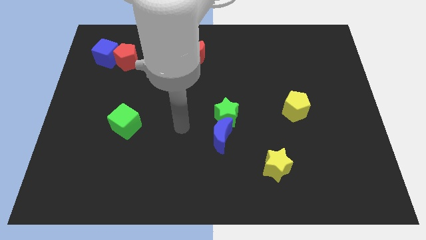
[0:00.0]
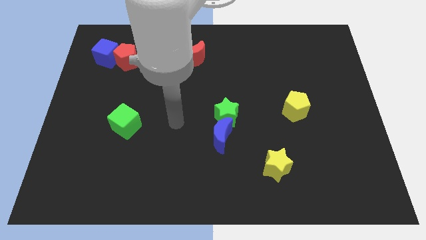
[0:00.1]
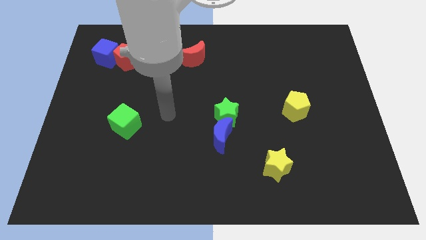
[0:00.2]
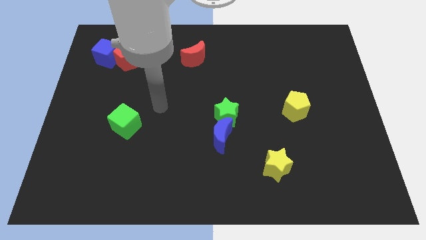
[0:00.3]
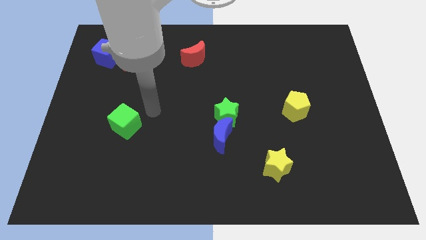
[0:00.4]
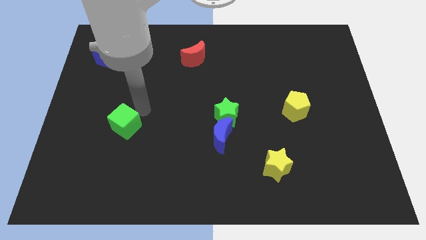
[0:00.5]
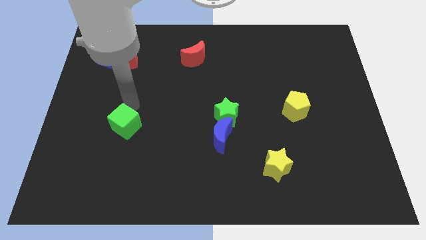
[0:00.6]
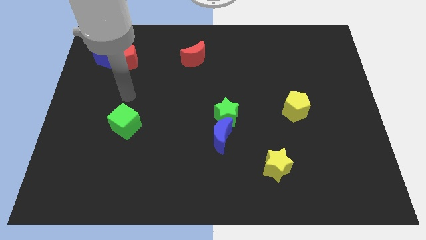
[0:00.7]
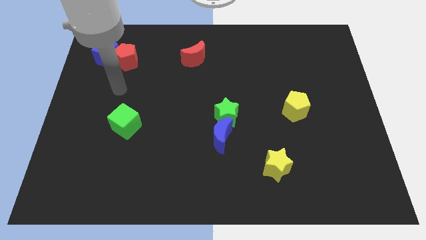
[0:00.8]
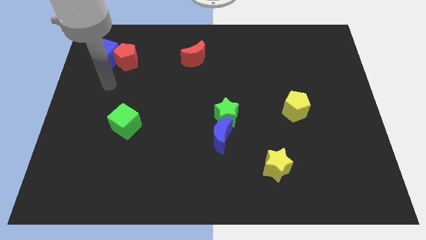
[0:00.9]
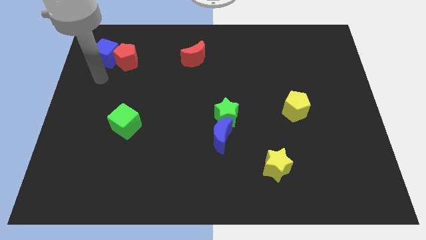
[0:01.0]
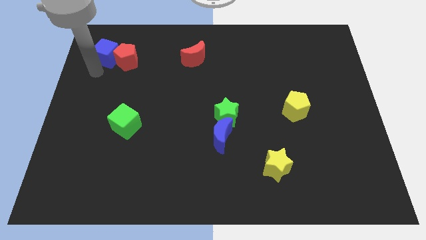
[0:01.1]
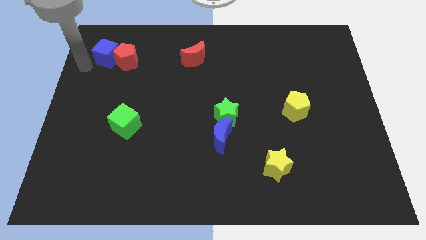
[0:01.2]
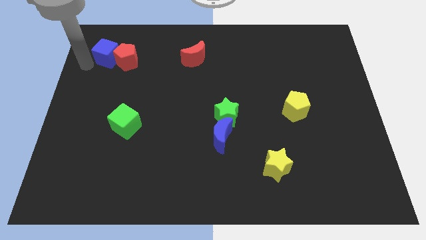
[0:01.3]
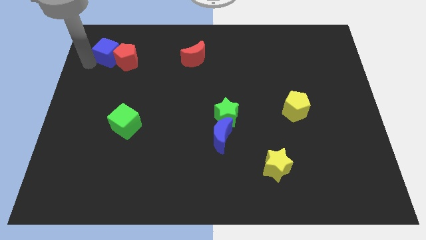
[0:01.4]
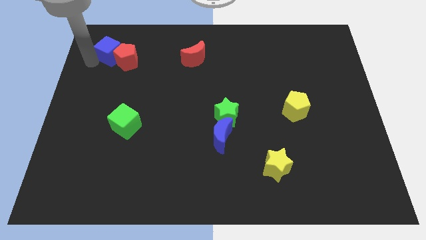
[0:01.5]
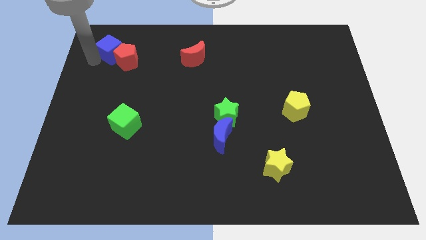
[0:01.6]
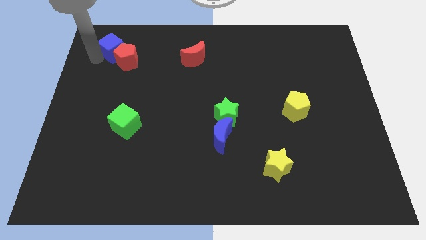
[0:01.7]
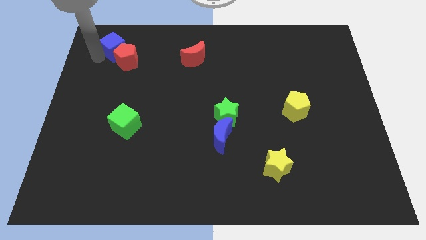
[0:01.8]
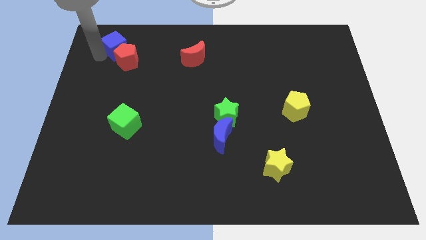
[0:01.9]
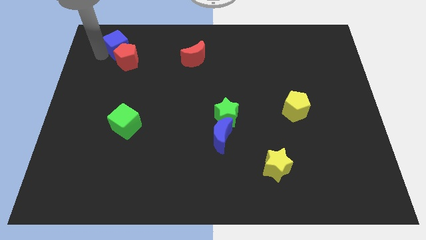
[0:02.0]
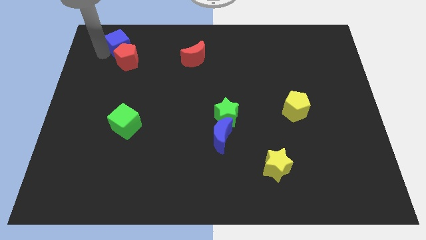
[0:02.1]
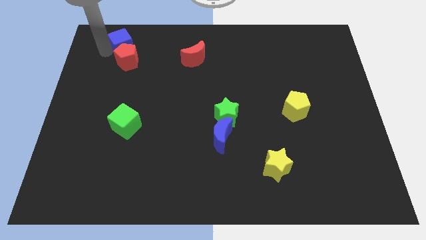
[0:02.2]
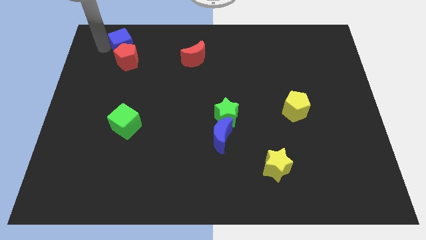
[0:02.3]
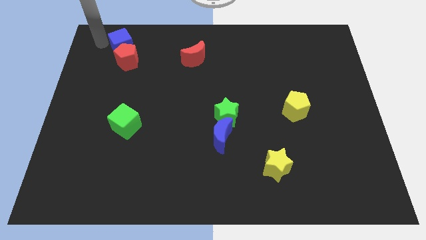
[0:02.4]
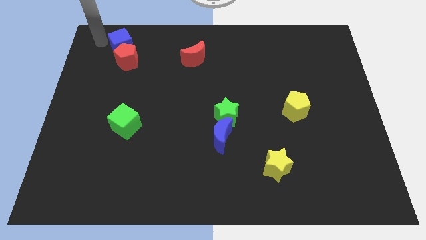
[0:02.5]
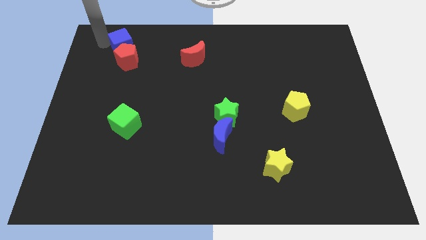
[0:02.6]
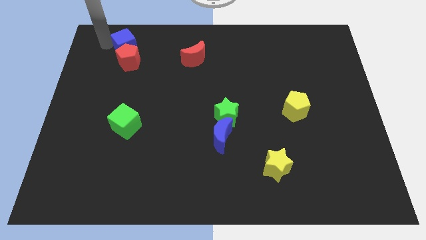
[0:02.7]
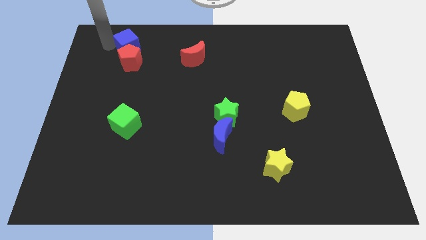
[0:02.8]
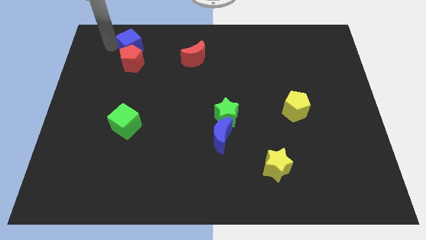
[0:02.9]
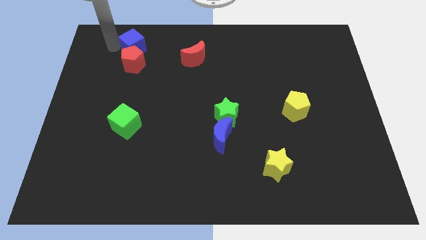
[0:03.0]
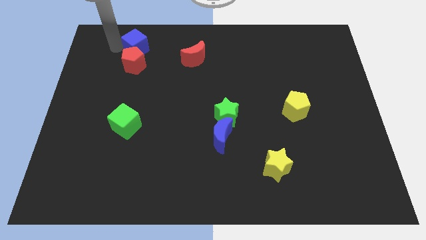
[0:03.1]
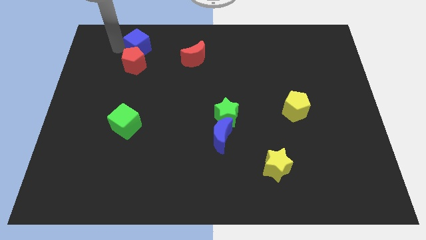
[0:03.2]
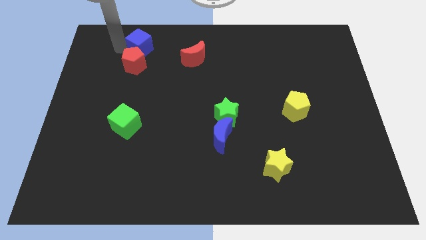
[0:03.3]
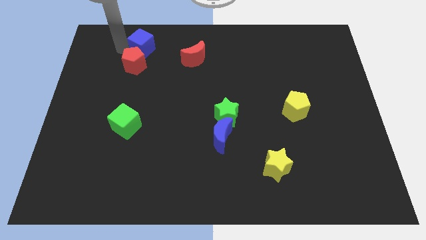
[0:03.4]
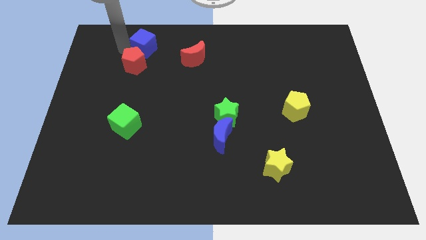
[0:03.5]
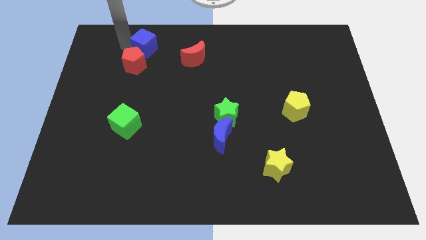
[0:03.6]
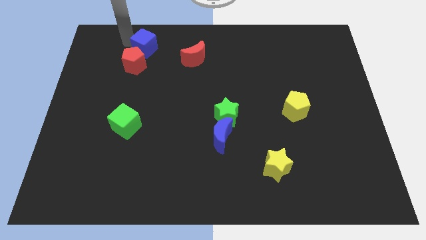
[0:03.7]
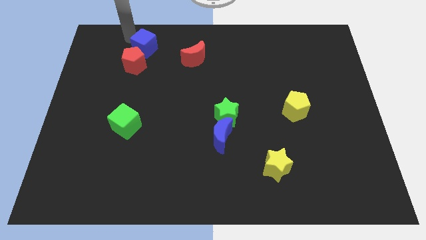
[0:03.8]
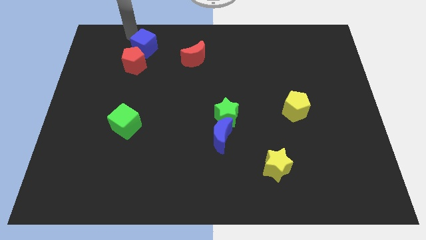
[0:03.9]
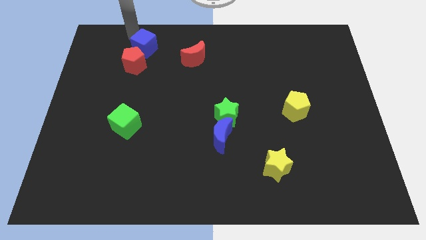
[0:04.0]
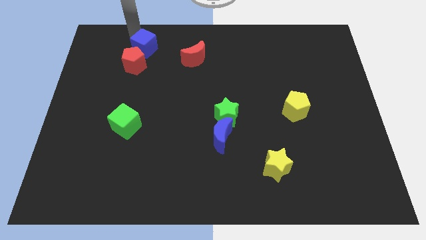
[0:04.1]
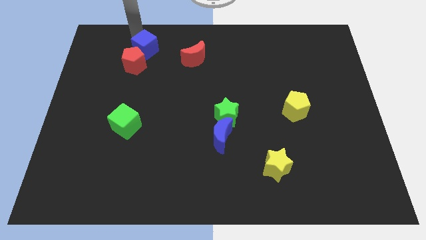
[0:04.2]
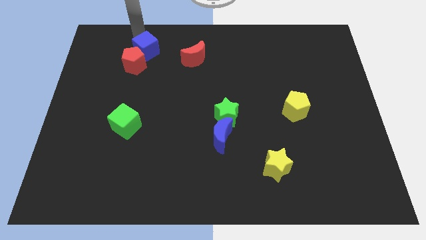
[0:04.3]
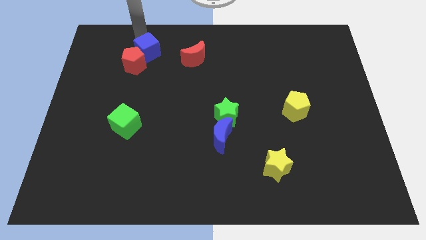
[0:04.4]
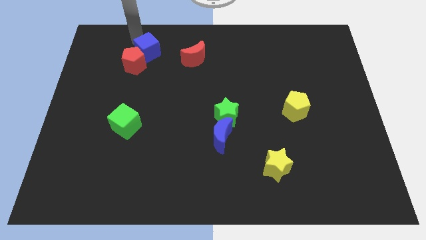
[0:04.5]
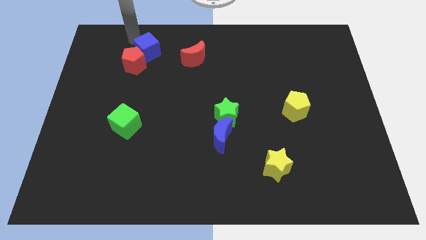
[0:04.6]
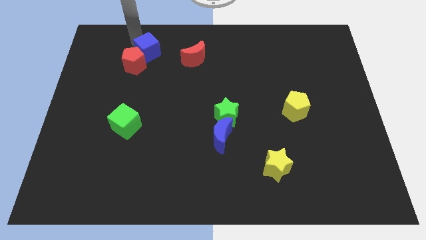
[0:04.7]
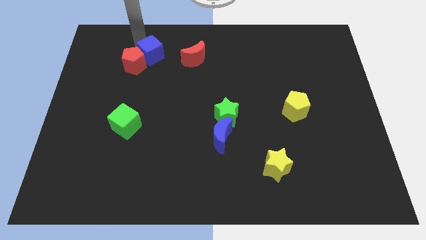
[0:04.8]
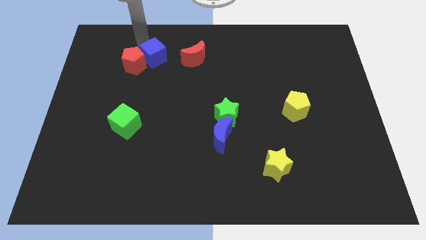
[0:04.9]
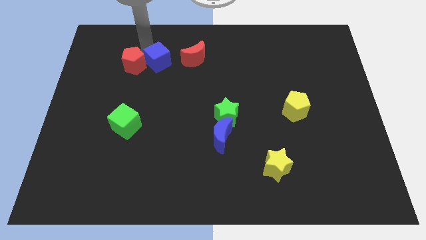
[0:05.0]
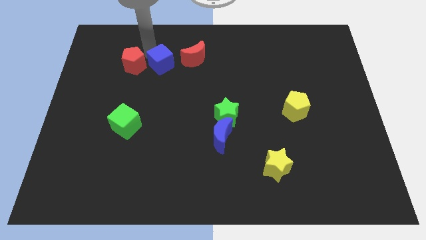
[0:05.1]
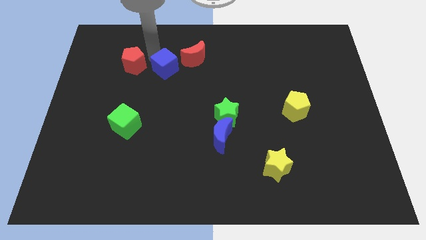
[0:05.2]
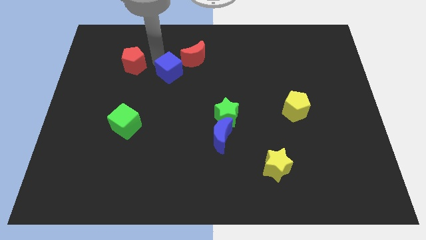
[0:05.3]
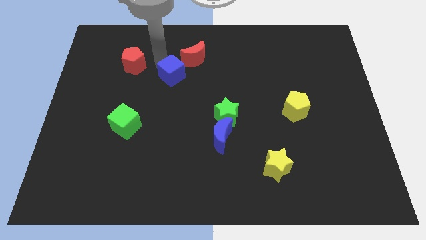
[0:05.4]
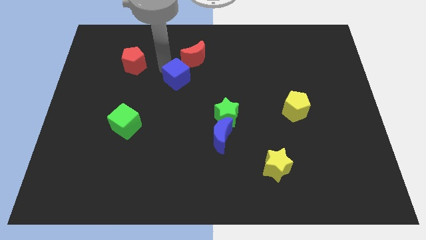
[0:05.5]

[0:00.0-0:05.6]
push the blue cube below the red moon
